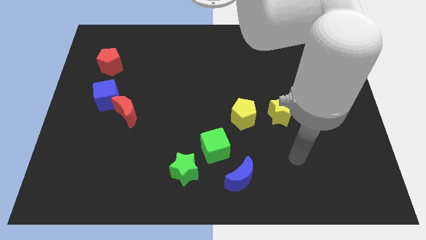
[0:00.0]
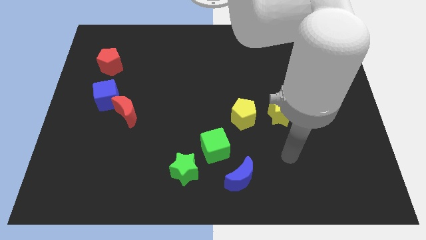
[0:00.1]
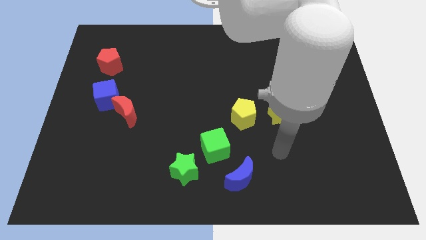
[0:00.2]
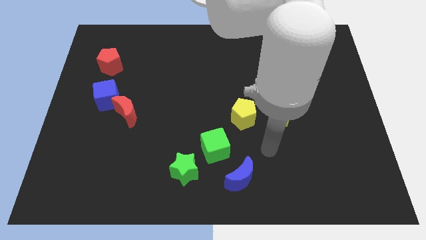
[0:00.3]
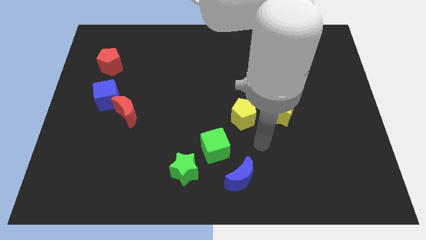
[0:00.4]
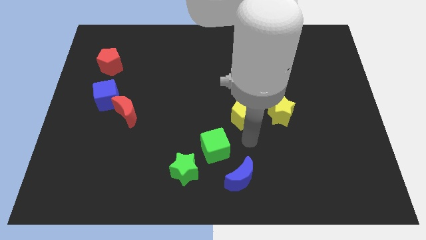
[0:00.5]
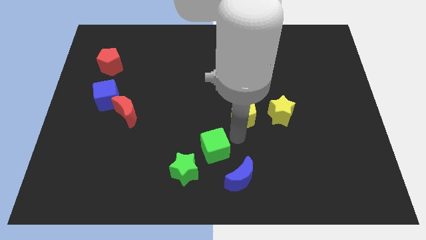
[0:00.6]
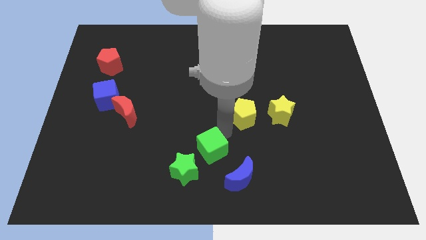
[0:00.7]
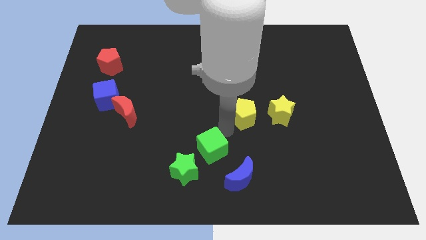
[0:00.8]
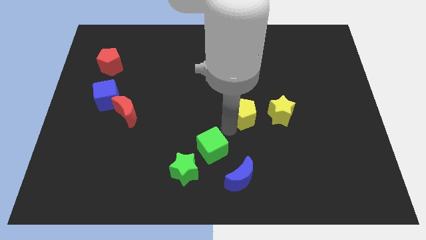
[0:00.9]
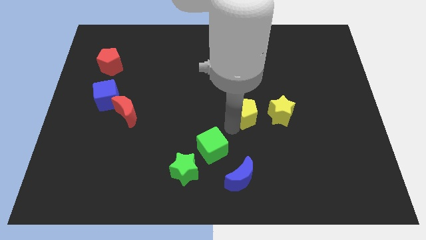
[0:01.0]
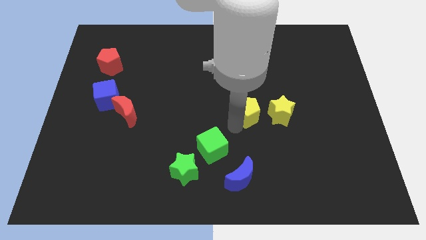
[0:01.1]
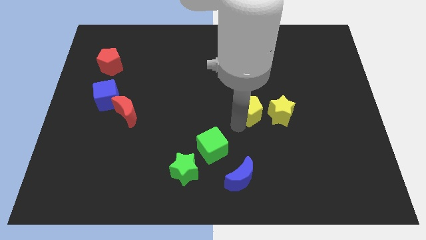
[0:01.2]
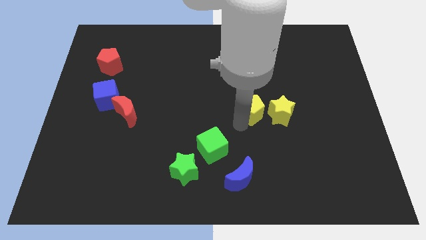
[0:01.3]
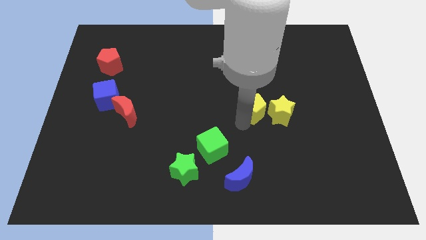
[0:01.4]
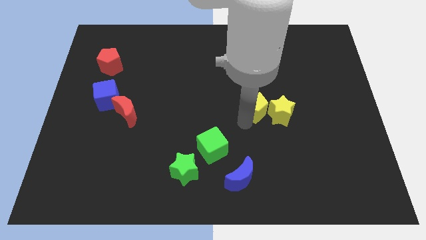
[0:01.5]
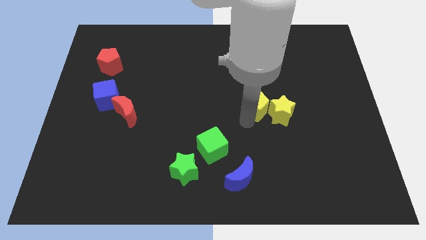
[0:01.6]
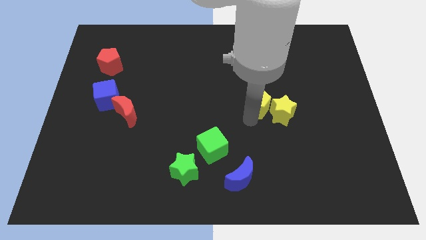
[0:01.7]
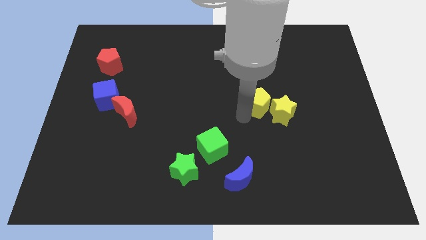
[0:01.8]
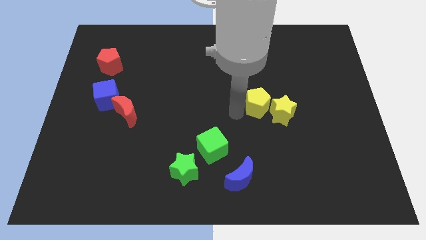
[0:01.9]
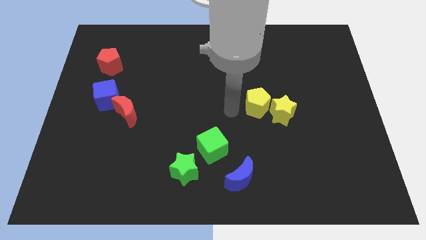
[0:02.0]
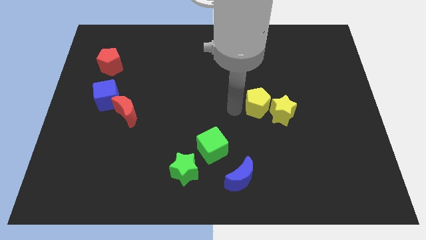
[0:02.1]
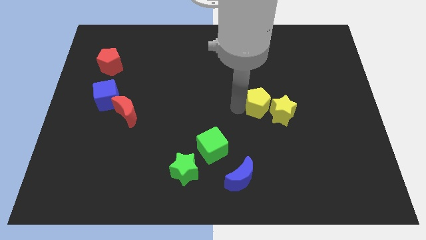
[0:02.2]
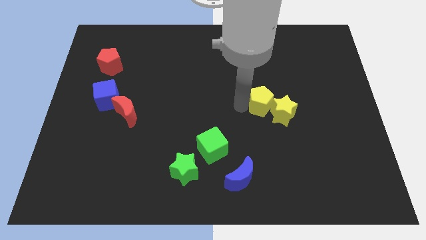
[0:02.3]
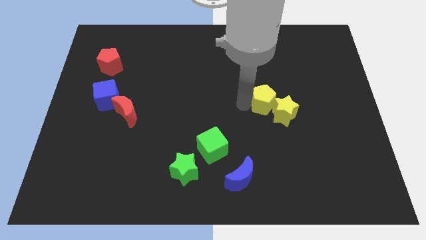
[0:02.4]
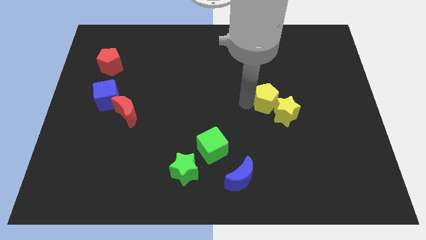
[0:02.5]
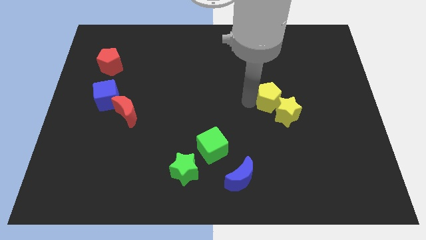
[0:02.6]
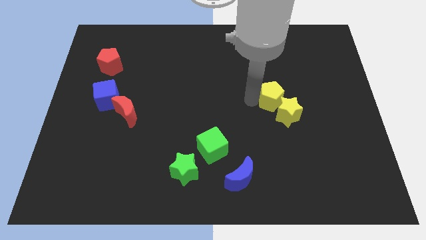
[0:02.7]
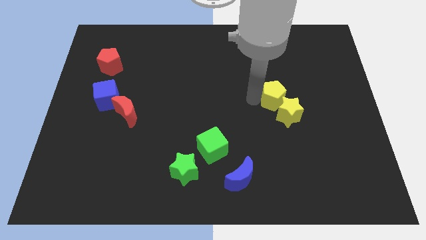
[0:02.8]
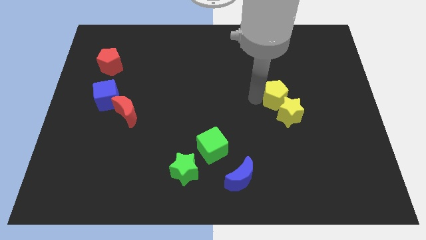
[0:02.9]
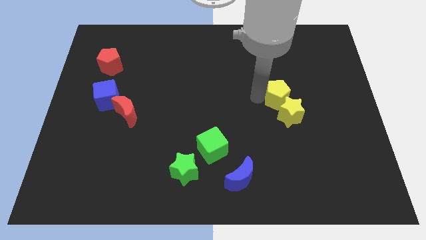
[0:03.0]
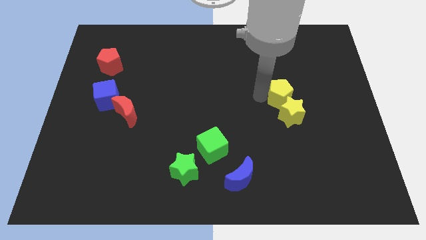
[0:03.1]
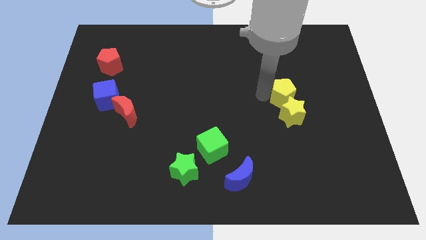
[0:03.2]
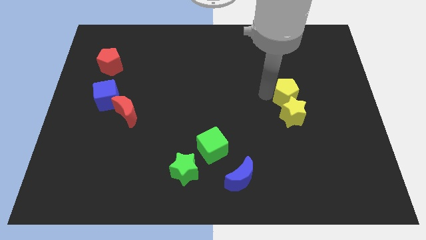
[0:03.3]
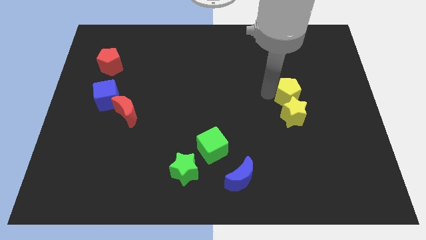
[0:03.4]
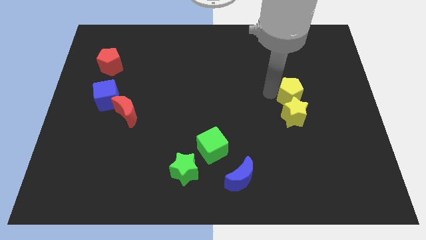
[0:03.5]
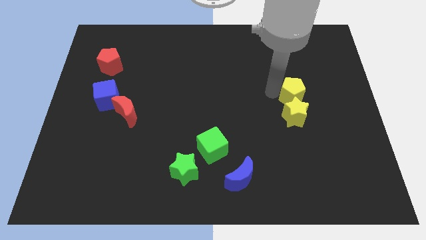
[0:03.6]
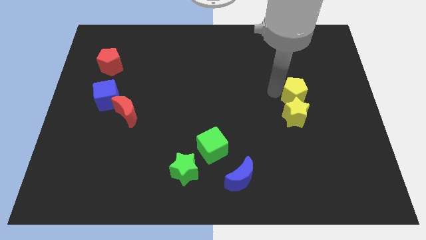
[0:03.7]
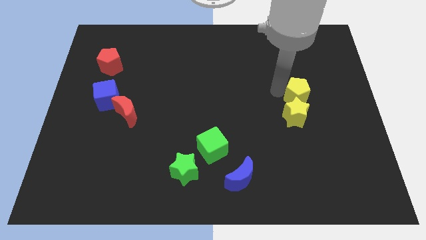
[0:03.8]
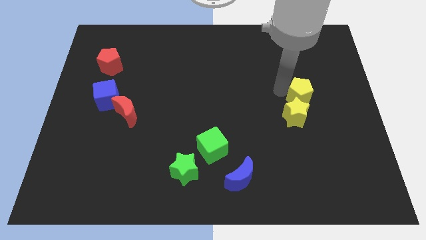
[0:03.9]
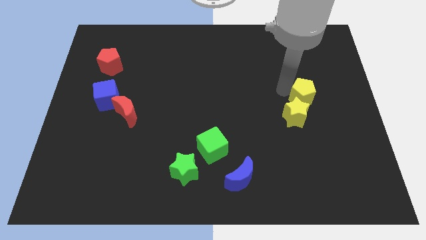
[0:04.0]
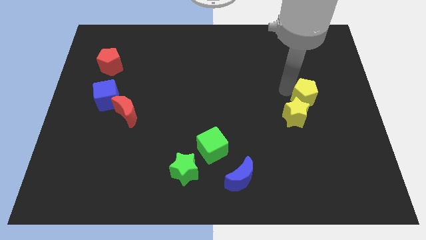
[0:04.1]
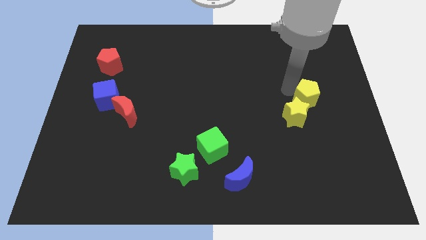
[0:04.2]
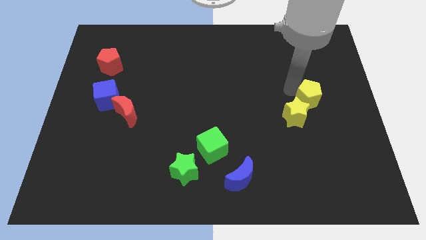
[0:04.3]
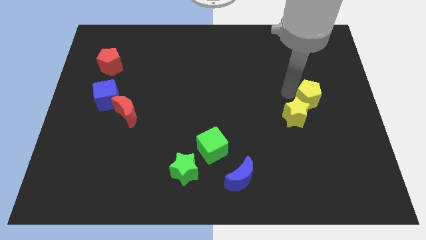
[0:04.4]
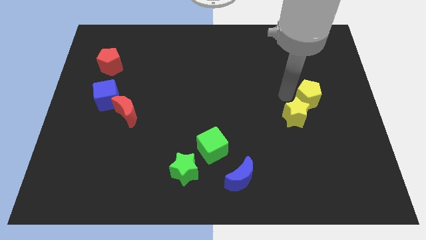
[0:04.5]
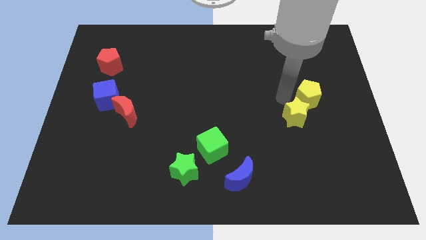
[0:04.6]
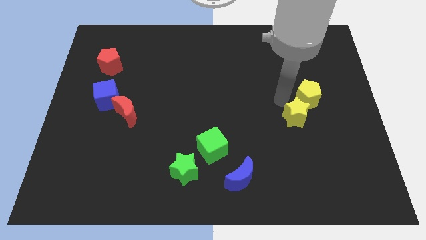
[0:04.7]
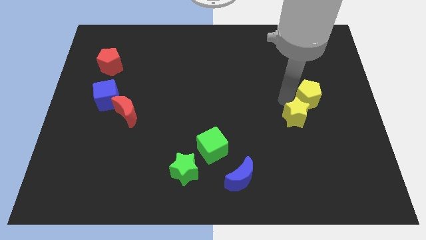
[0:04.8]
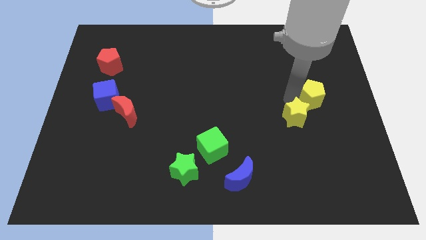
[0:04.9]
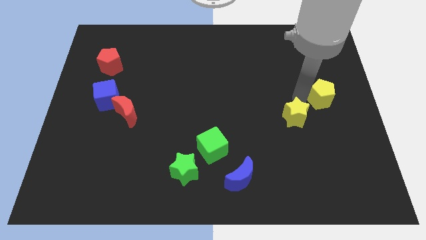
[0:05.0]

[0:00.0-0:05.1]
put the yellow pentagon to the center right
